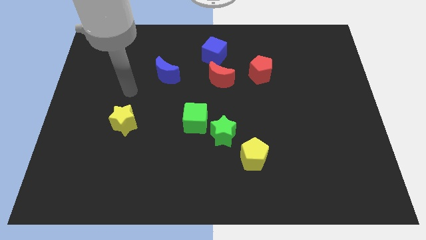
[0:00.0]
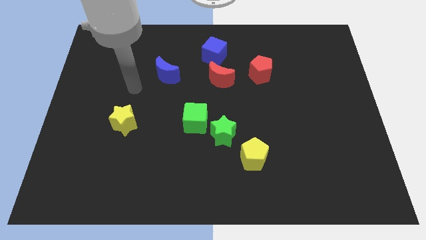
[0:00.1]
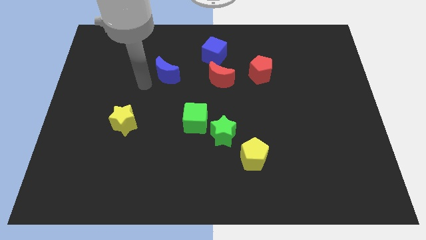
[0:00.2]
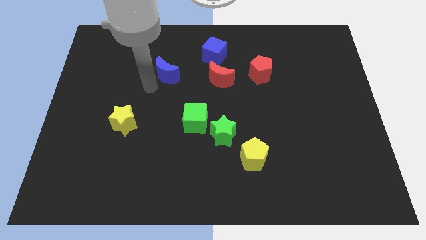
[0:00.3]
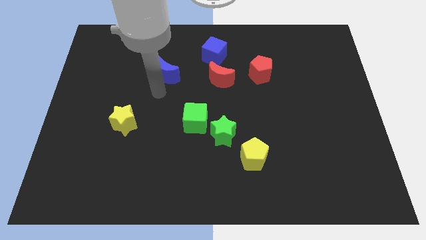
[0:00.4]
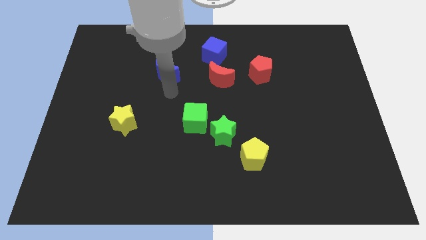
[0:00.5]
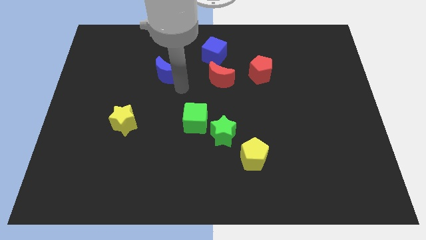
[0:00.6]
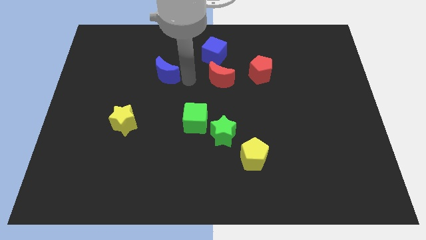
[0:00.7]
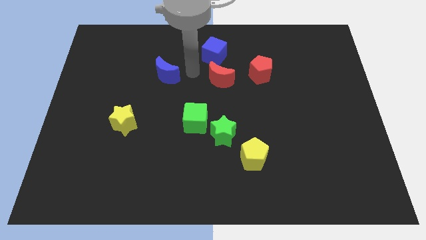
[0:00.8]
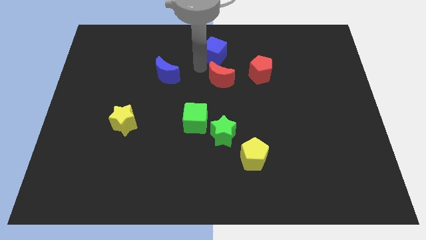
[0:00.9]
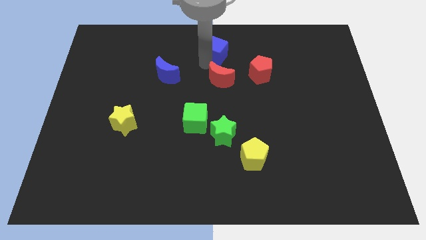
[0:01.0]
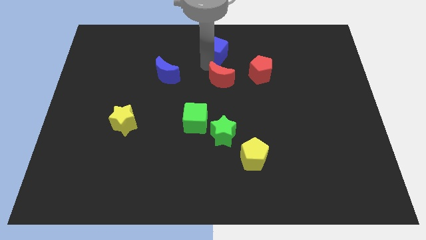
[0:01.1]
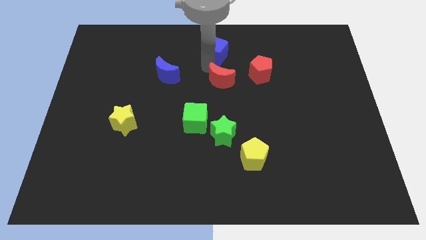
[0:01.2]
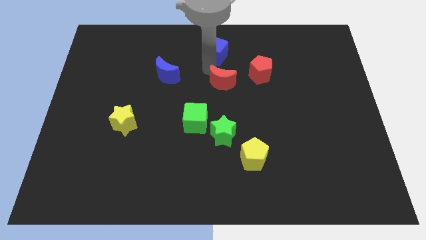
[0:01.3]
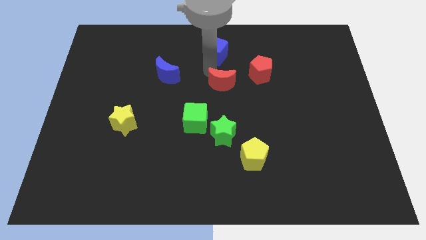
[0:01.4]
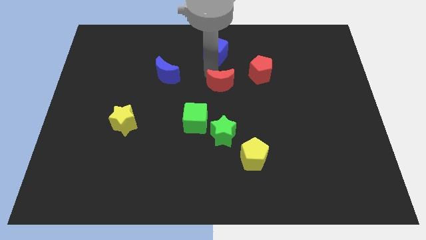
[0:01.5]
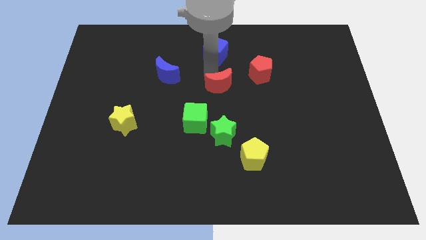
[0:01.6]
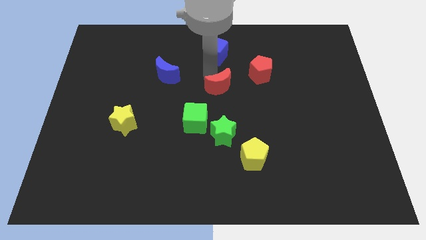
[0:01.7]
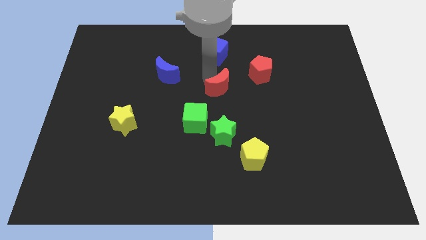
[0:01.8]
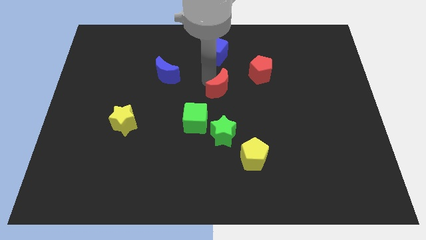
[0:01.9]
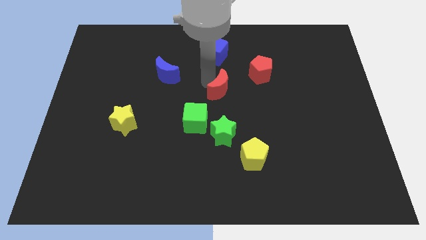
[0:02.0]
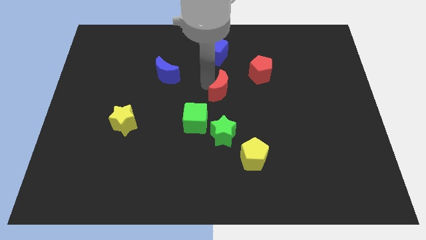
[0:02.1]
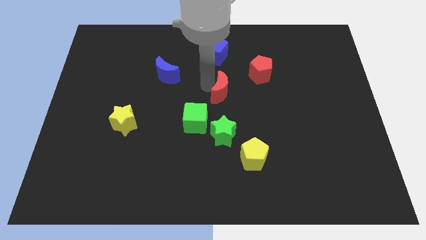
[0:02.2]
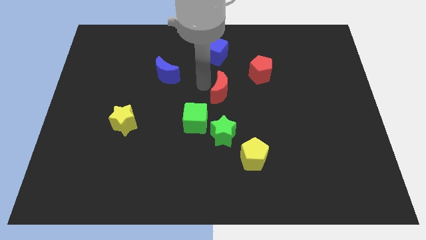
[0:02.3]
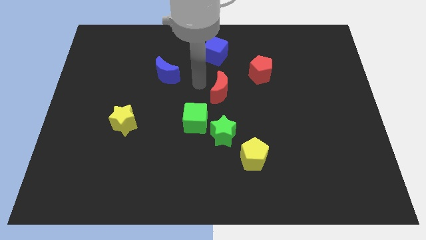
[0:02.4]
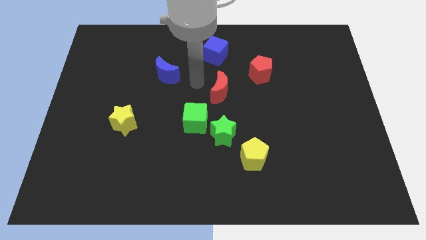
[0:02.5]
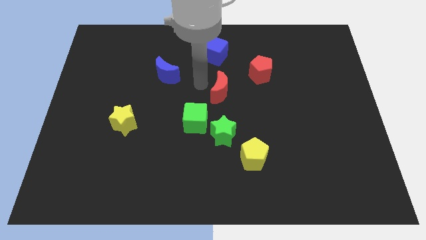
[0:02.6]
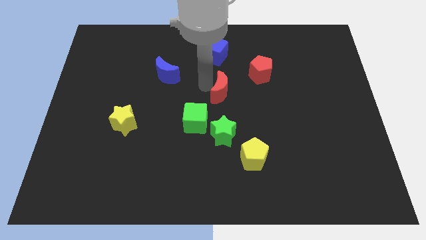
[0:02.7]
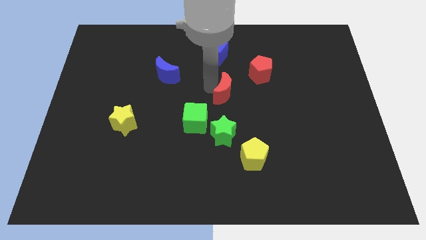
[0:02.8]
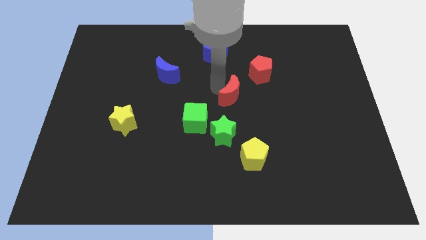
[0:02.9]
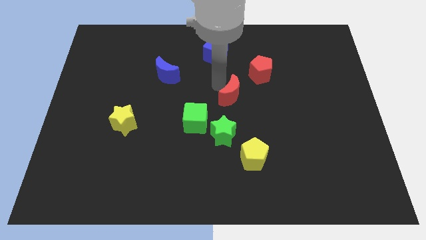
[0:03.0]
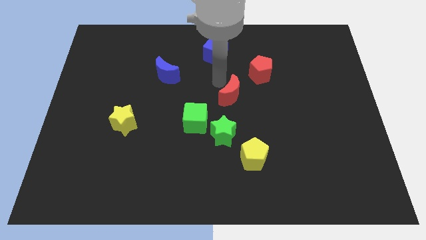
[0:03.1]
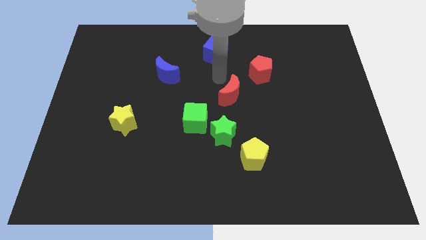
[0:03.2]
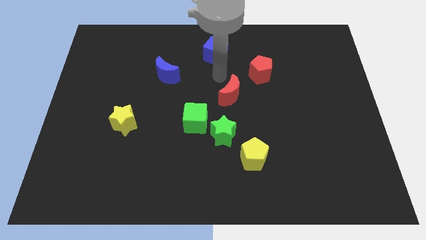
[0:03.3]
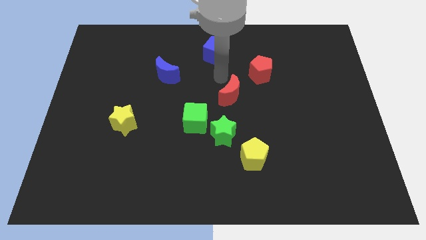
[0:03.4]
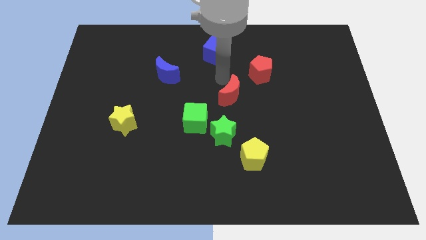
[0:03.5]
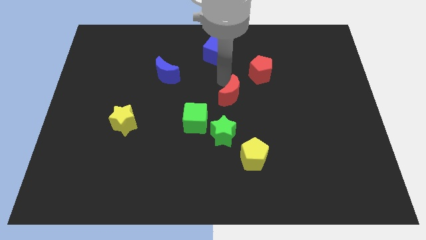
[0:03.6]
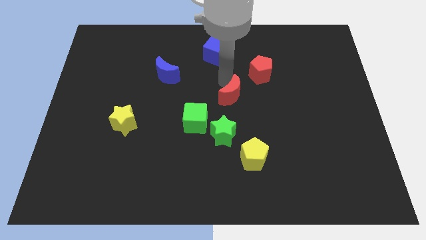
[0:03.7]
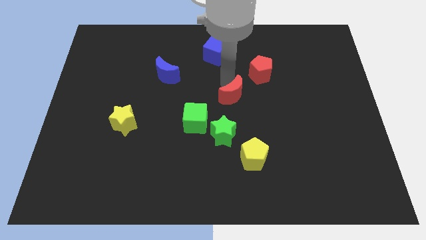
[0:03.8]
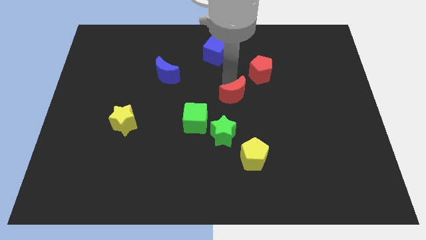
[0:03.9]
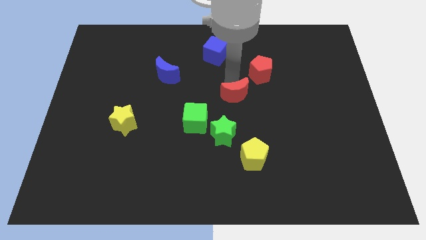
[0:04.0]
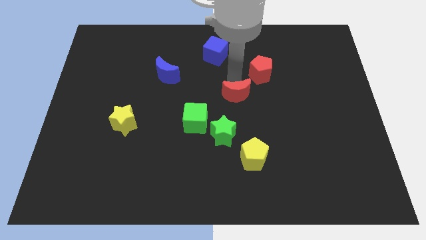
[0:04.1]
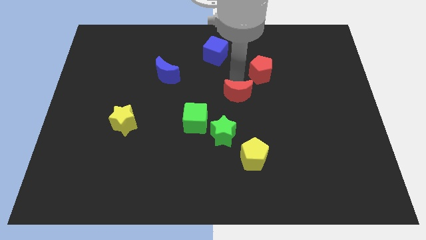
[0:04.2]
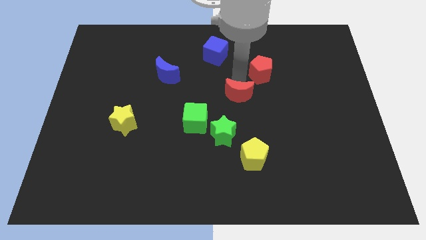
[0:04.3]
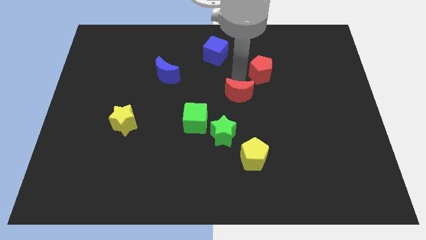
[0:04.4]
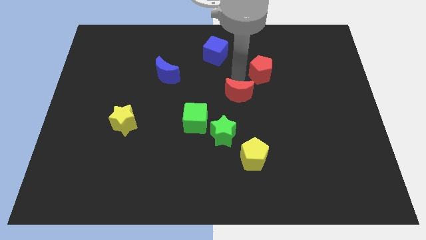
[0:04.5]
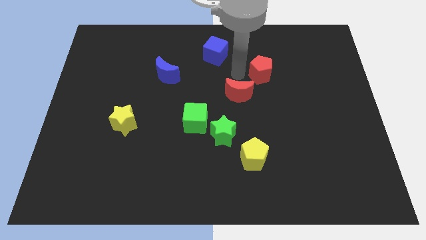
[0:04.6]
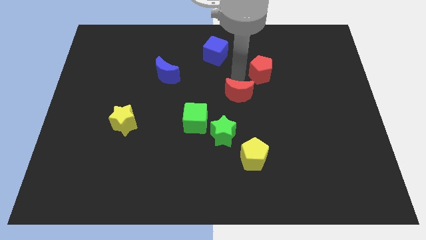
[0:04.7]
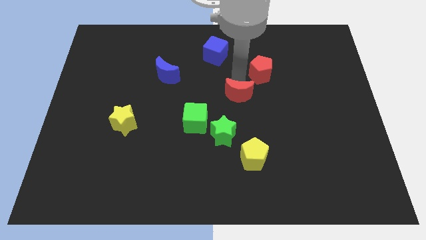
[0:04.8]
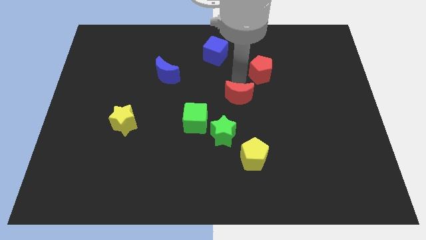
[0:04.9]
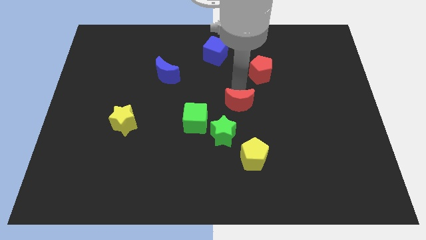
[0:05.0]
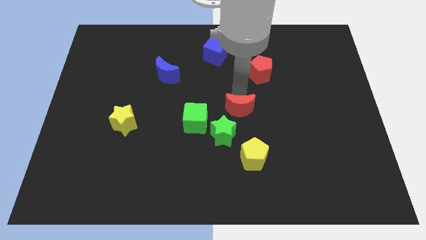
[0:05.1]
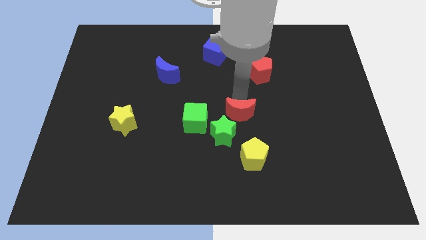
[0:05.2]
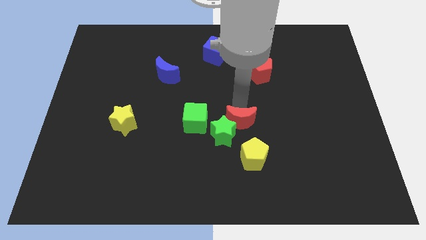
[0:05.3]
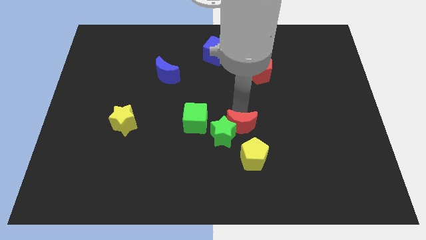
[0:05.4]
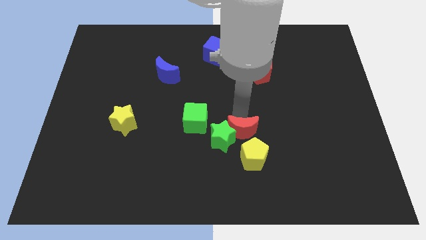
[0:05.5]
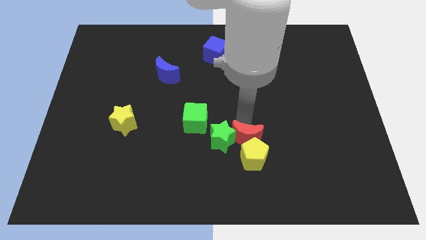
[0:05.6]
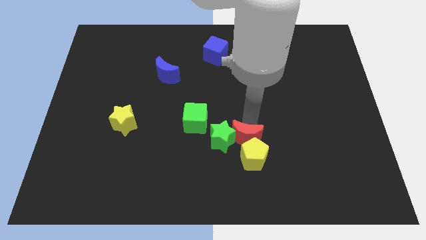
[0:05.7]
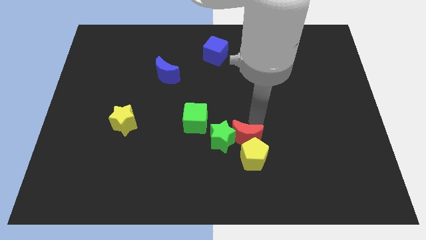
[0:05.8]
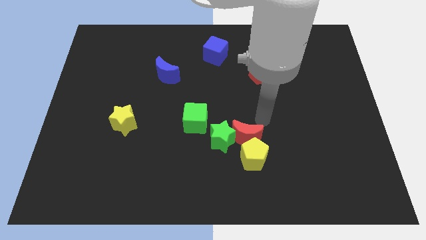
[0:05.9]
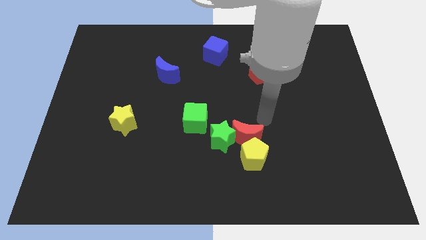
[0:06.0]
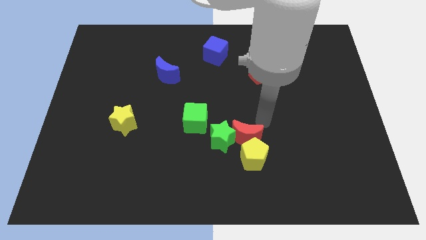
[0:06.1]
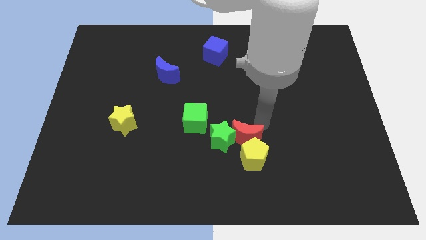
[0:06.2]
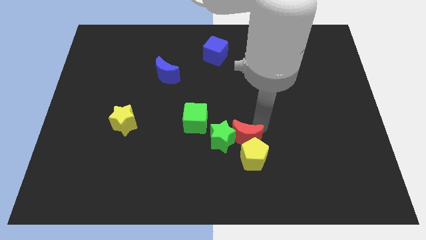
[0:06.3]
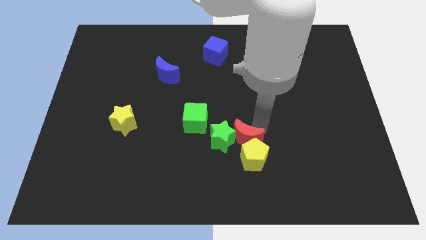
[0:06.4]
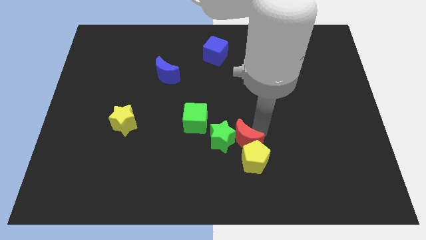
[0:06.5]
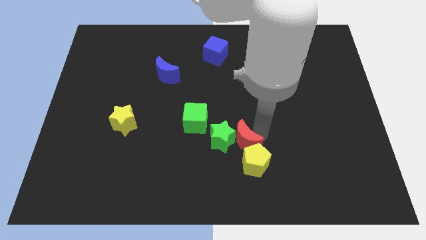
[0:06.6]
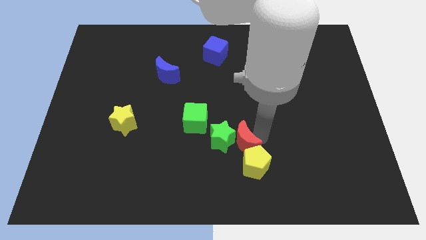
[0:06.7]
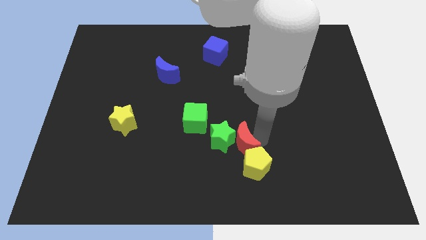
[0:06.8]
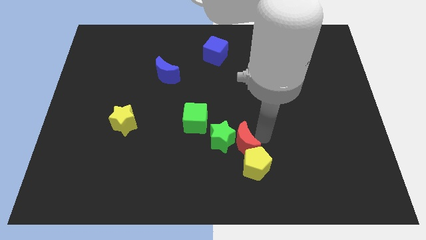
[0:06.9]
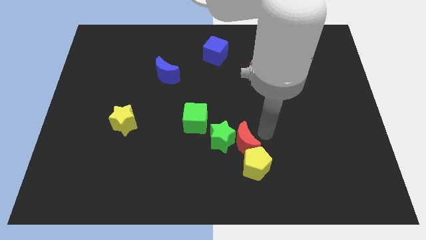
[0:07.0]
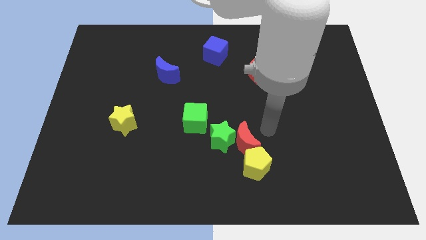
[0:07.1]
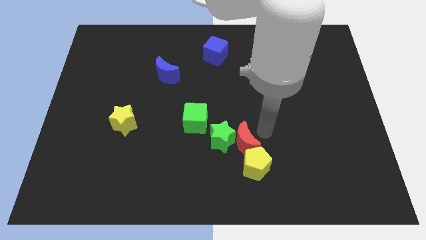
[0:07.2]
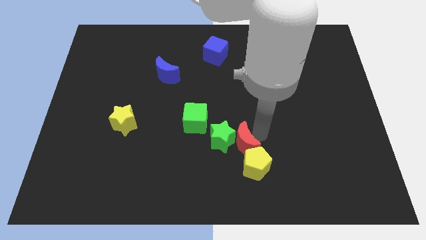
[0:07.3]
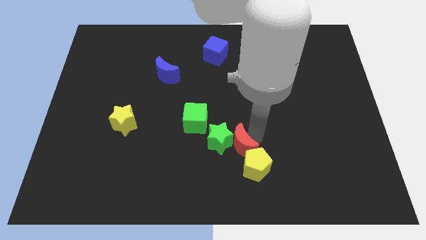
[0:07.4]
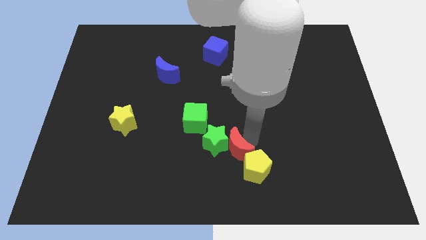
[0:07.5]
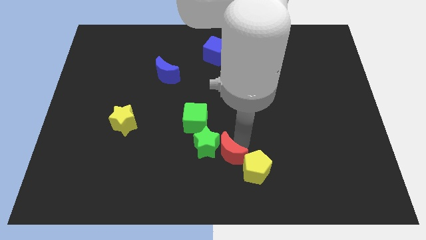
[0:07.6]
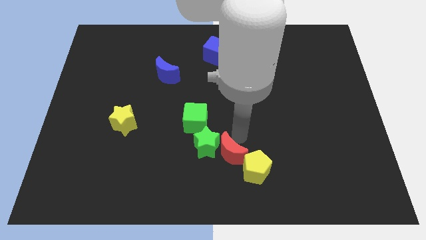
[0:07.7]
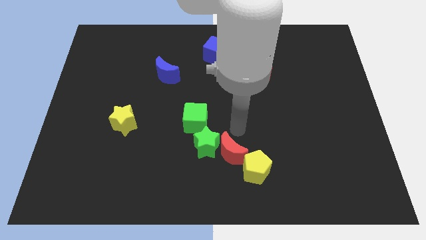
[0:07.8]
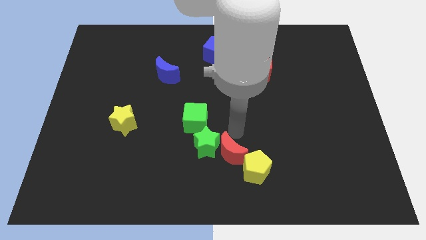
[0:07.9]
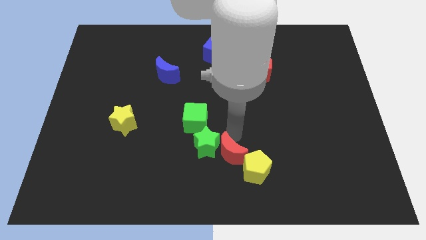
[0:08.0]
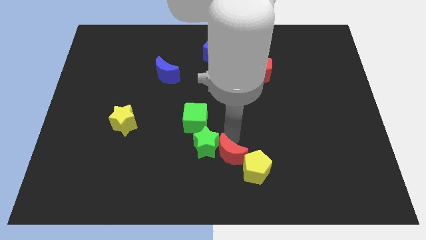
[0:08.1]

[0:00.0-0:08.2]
push the red moon to the bottom side
